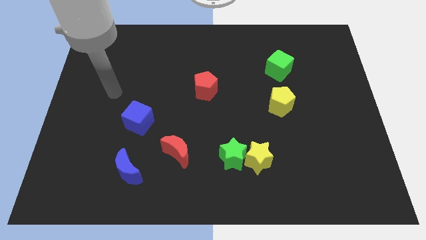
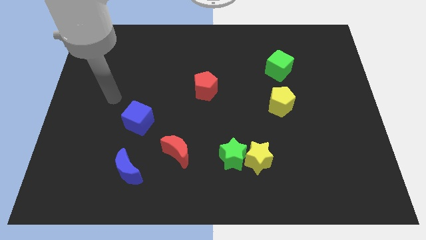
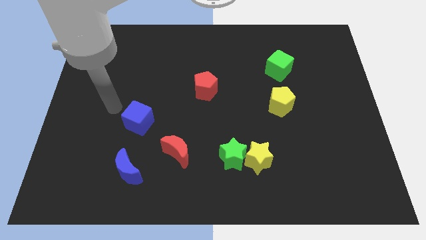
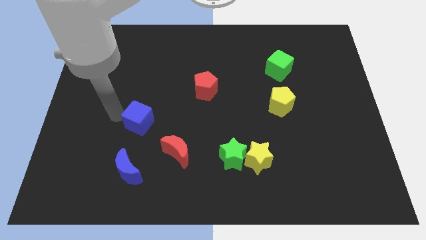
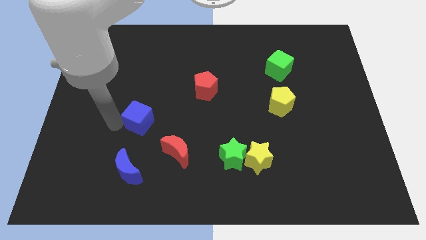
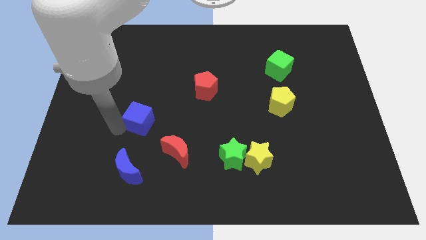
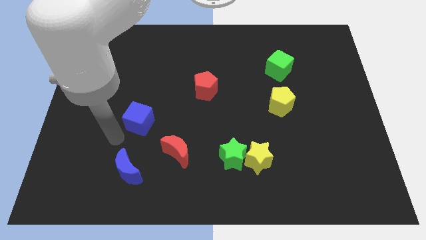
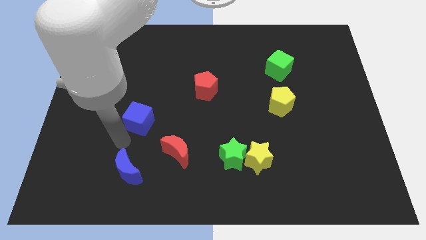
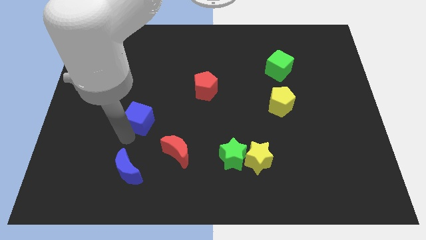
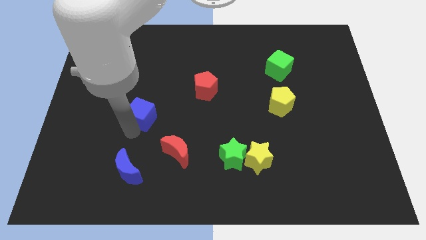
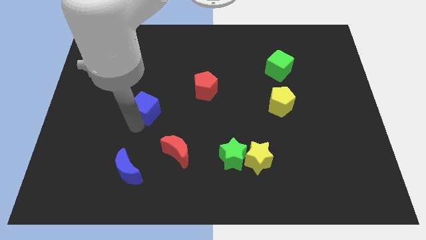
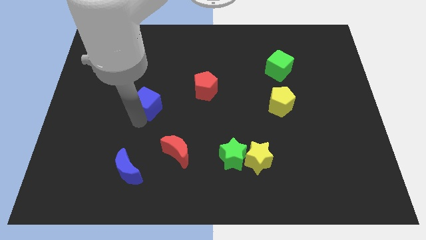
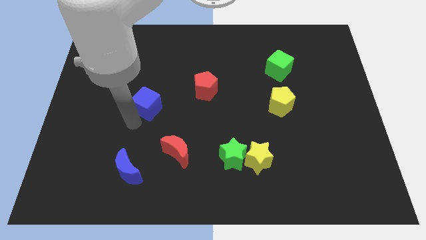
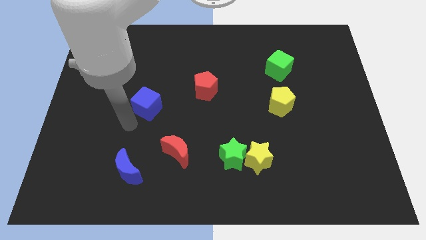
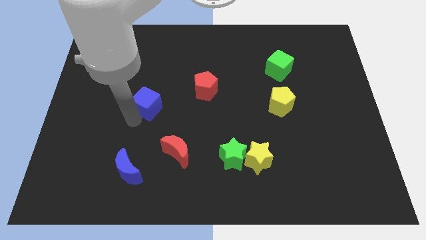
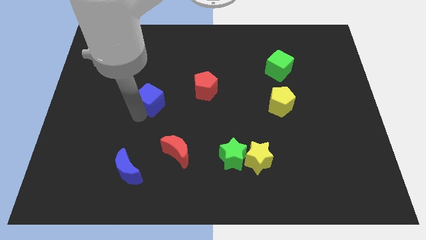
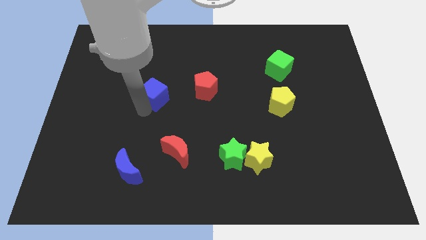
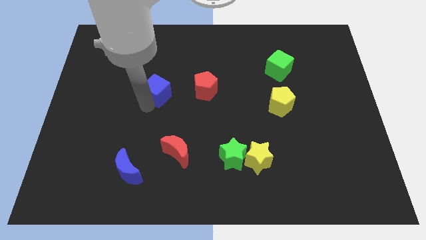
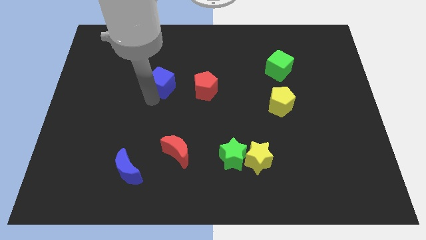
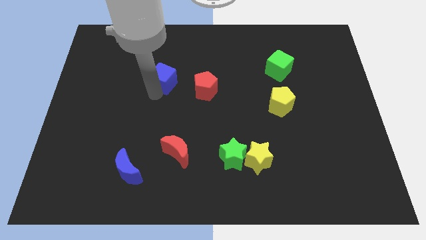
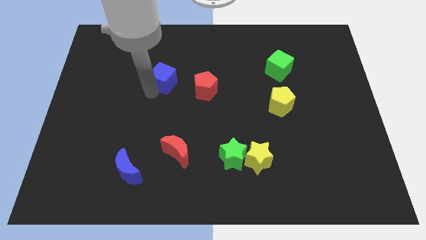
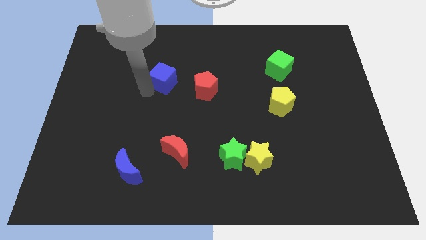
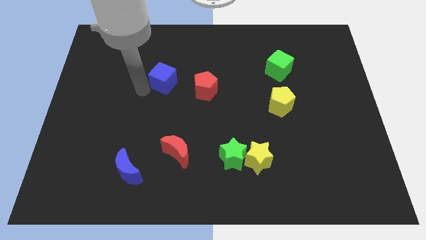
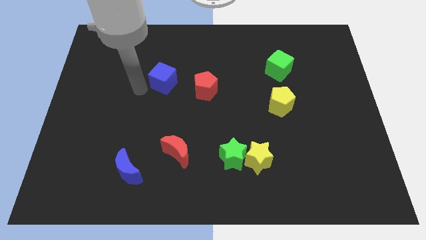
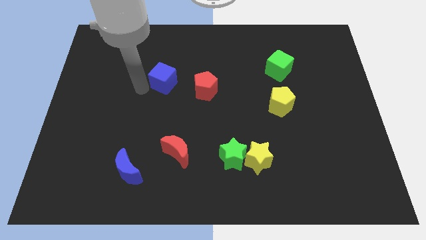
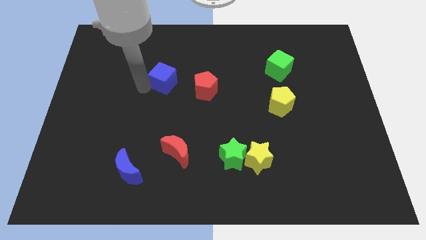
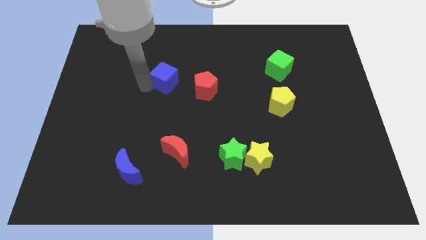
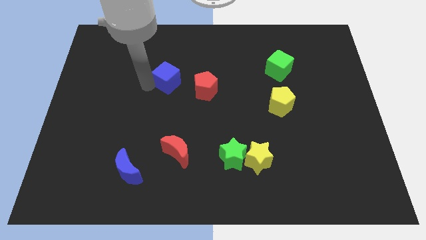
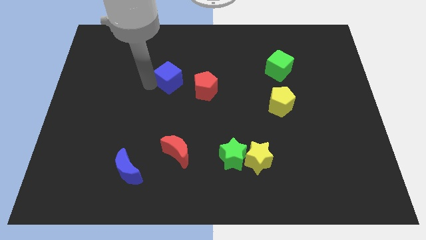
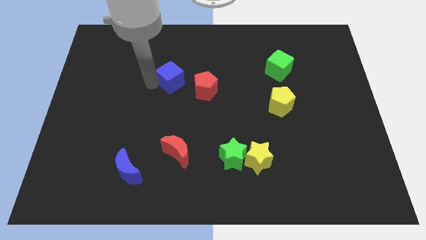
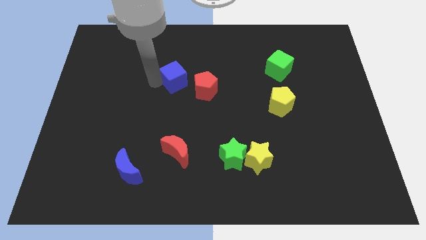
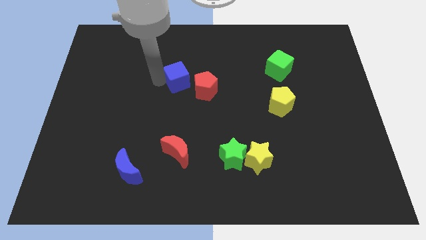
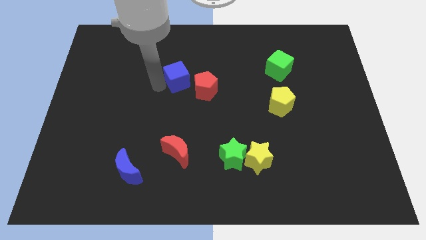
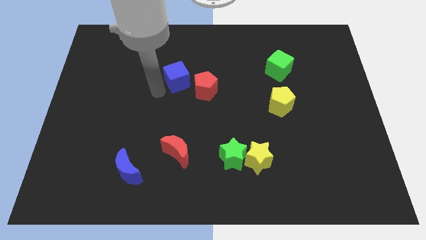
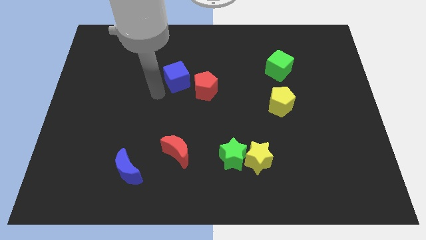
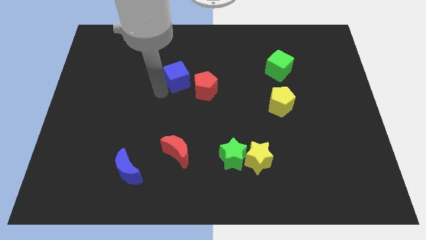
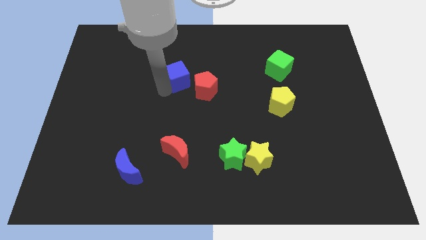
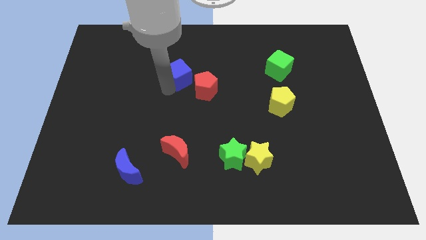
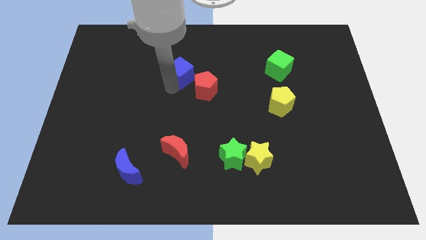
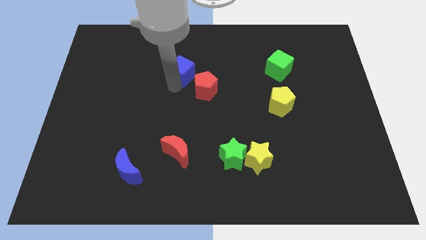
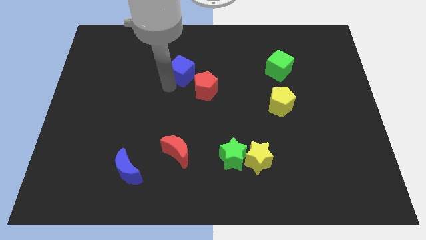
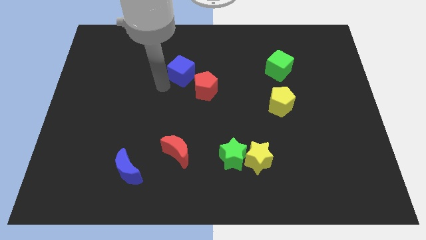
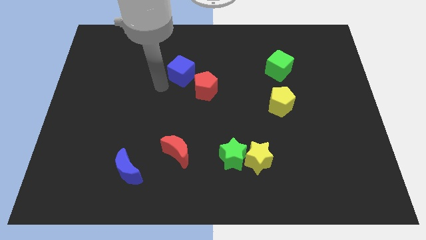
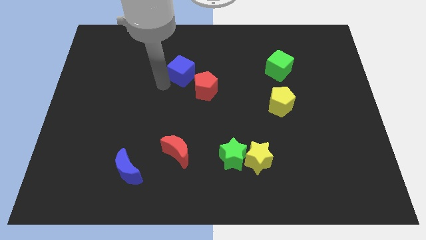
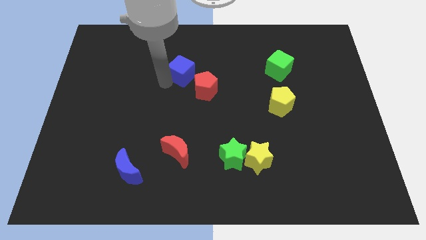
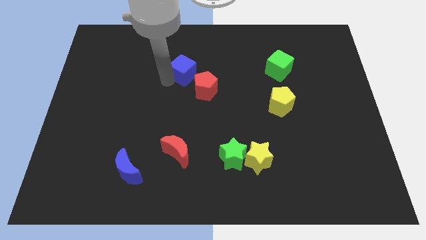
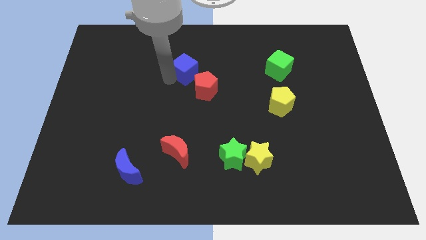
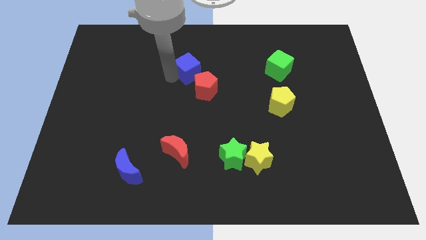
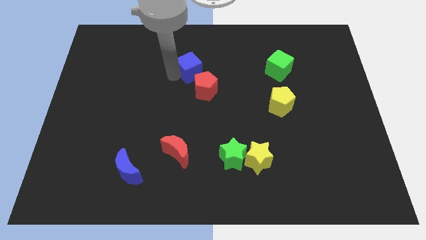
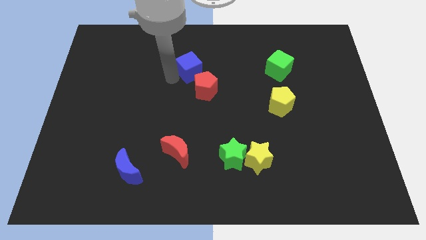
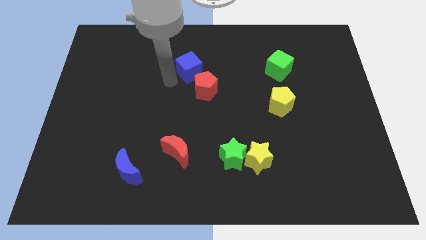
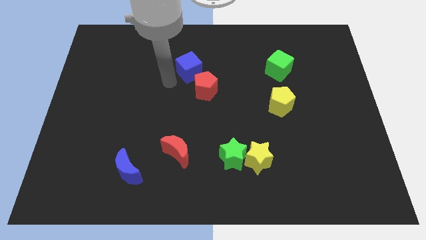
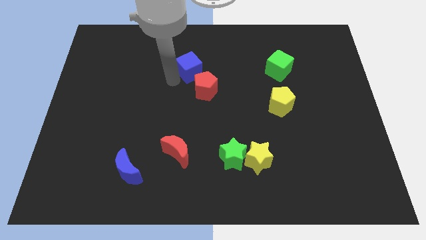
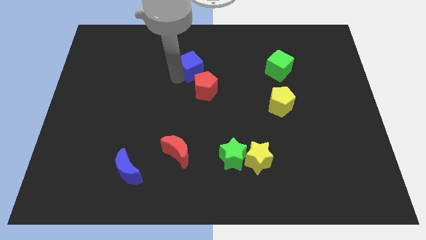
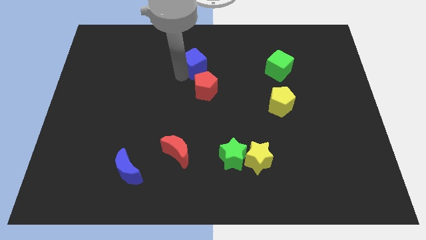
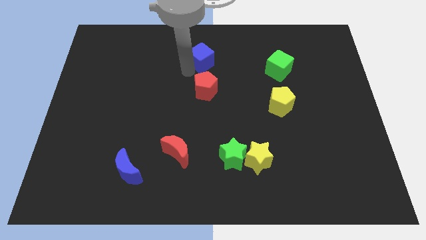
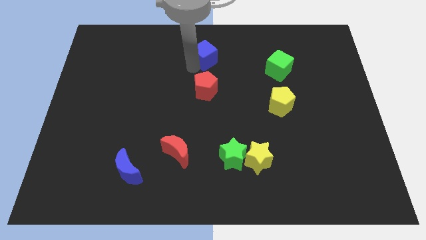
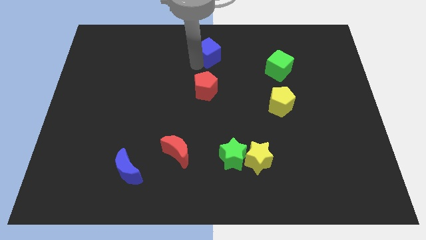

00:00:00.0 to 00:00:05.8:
move the blue cube to the top side
